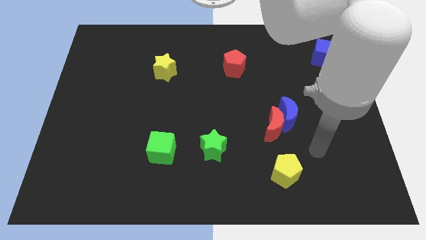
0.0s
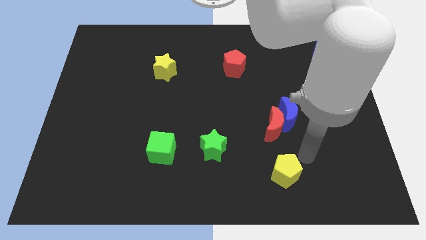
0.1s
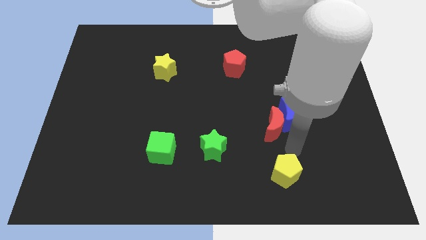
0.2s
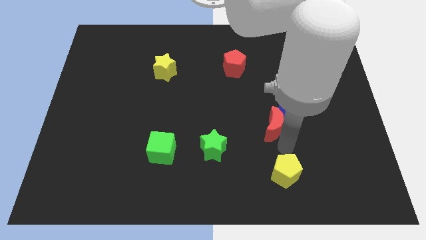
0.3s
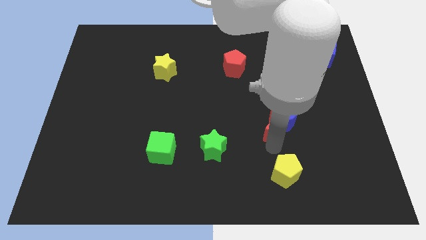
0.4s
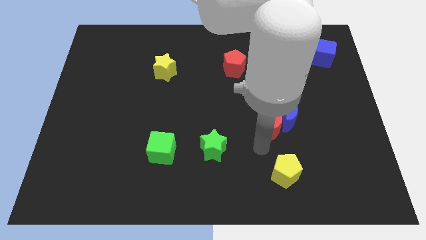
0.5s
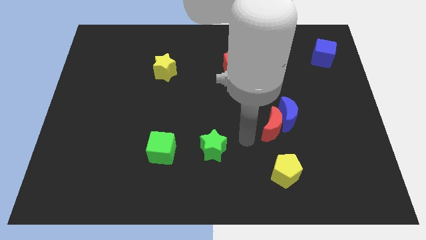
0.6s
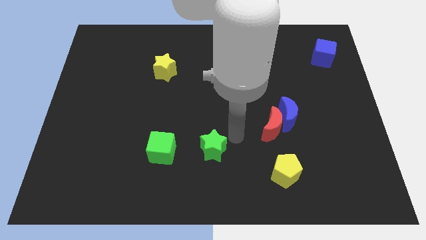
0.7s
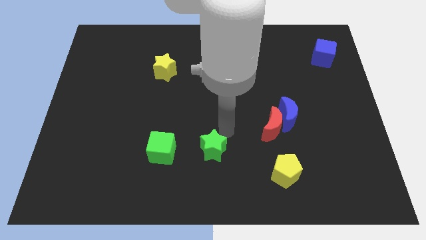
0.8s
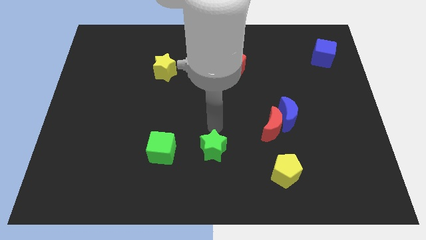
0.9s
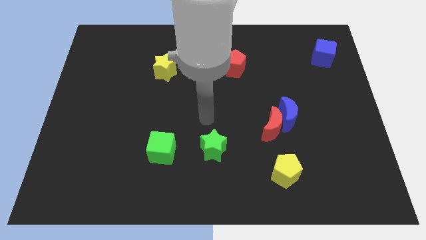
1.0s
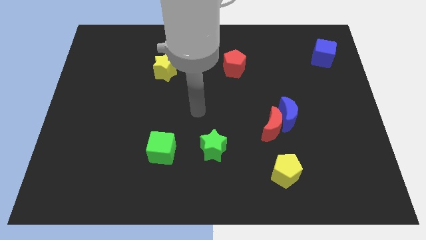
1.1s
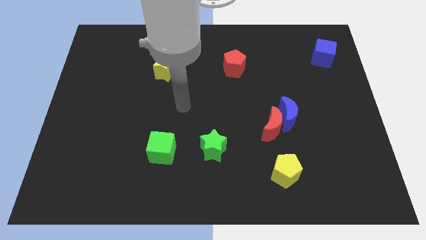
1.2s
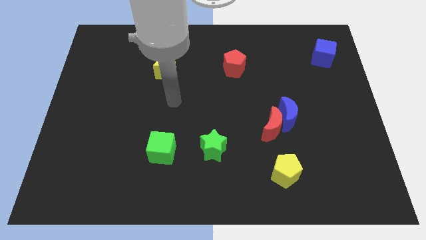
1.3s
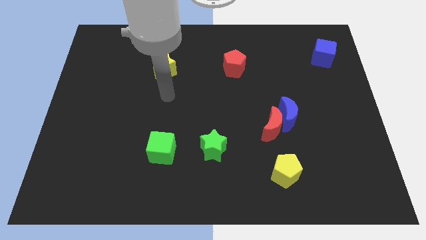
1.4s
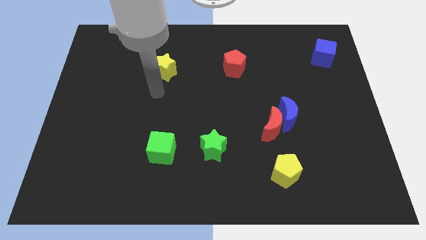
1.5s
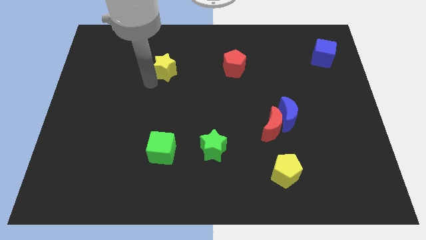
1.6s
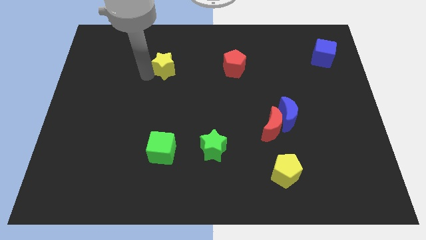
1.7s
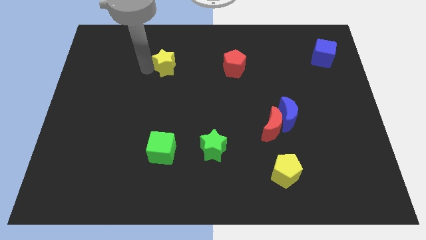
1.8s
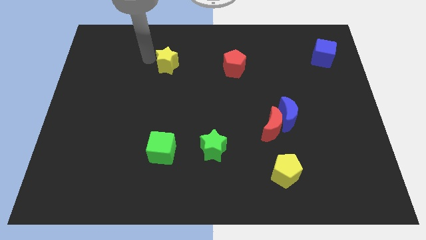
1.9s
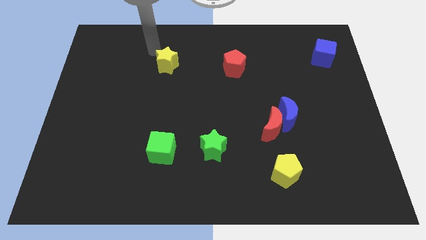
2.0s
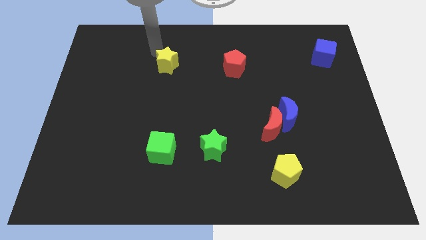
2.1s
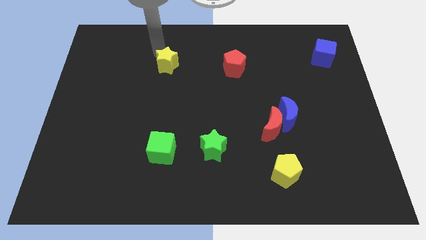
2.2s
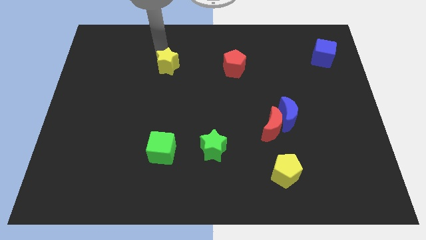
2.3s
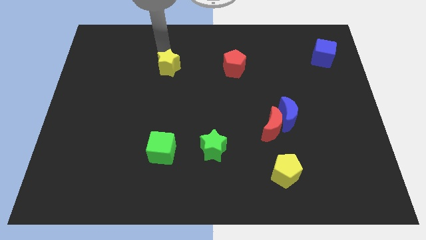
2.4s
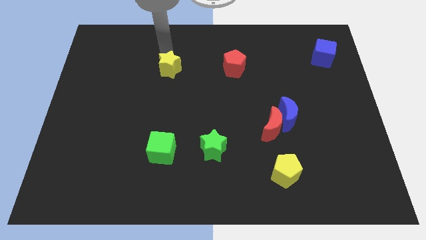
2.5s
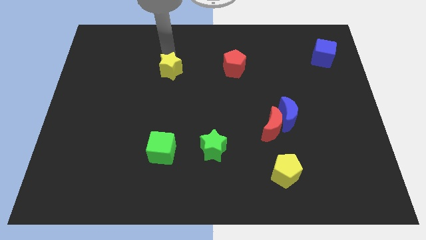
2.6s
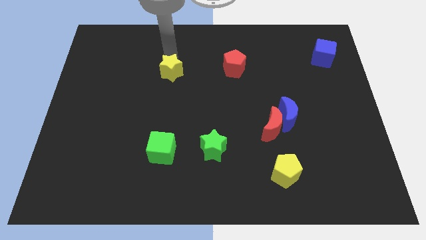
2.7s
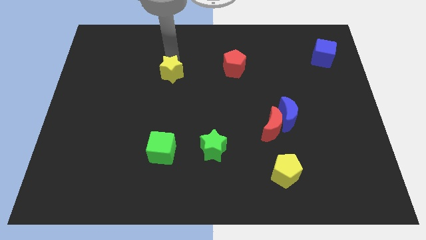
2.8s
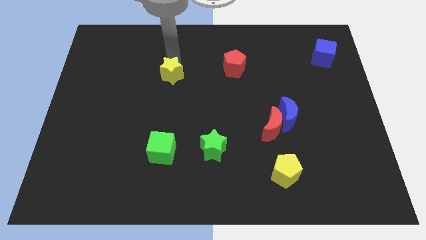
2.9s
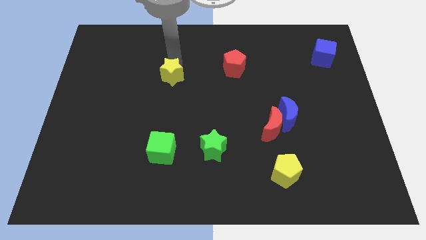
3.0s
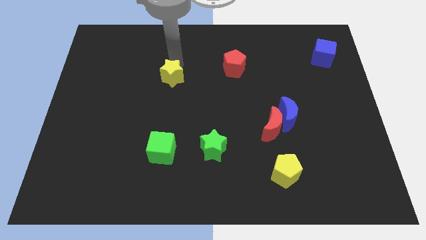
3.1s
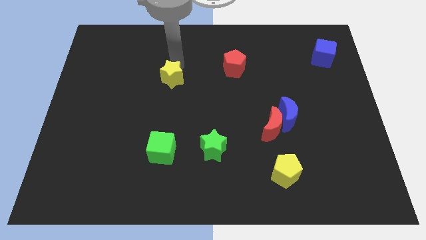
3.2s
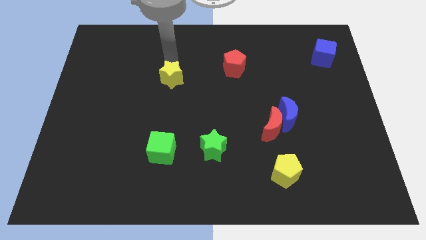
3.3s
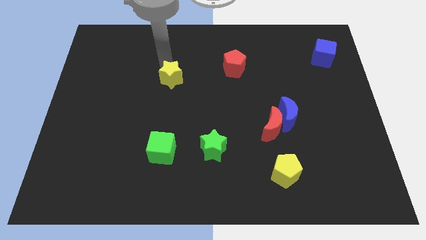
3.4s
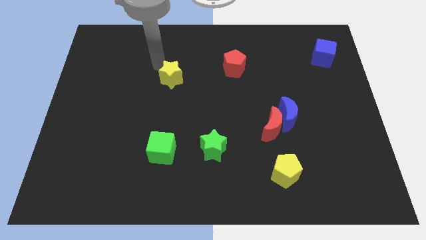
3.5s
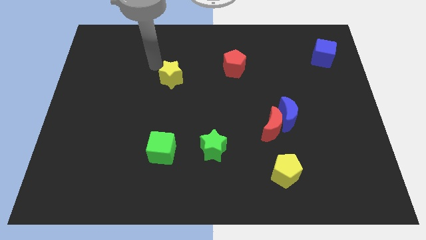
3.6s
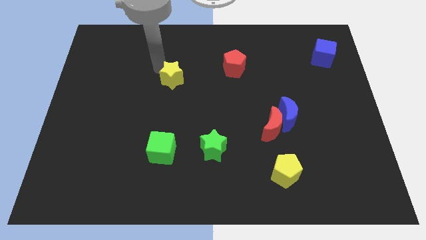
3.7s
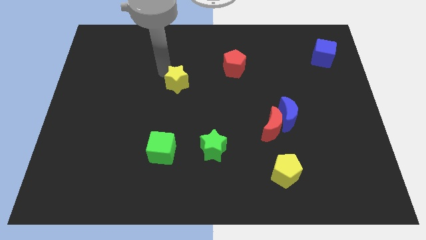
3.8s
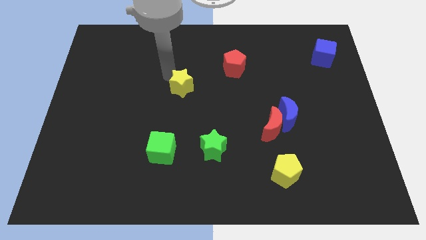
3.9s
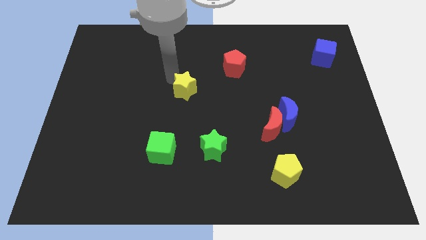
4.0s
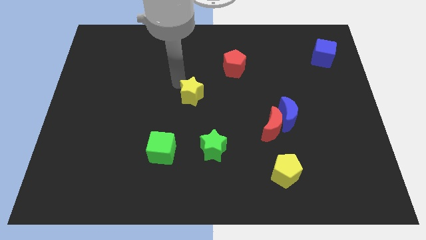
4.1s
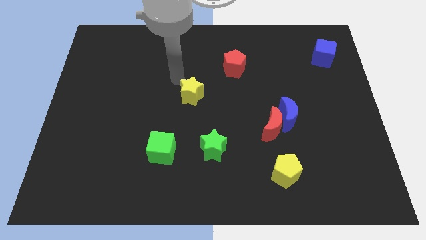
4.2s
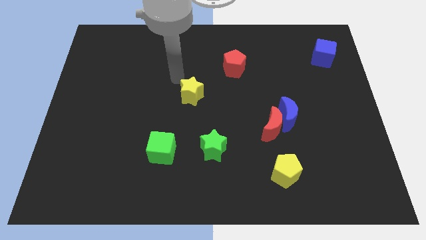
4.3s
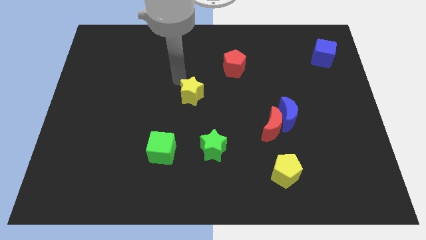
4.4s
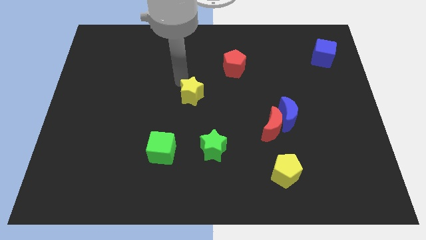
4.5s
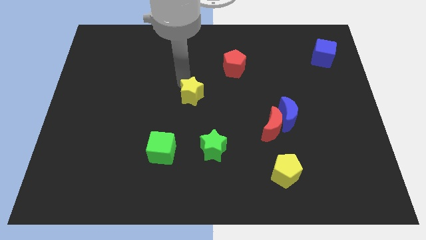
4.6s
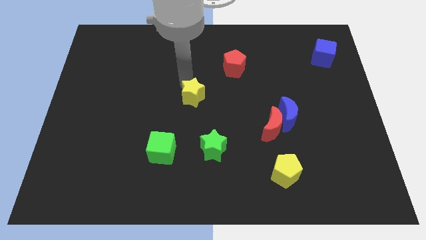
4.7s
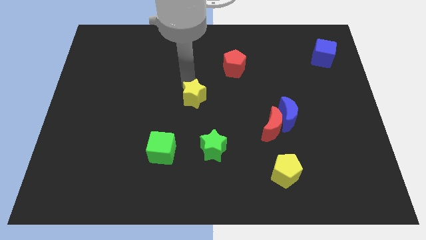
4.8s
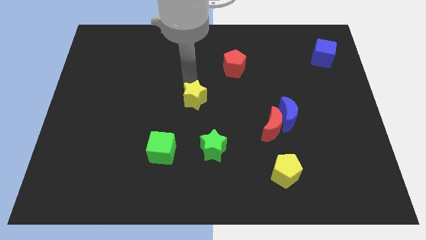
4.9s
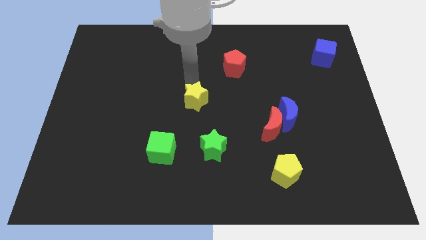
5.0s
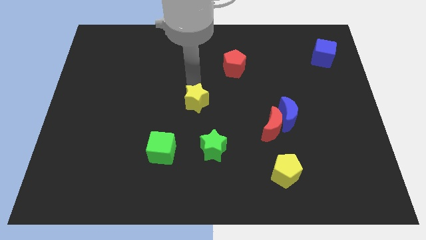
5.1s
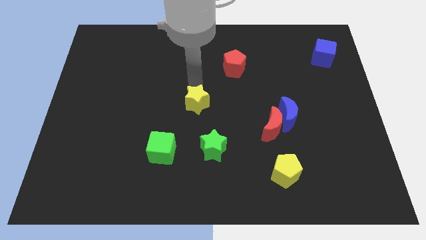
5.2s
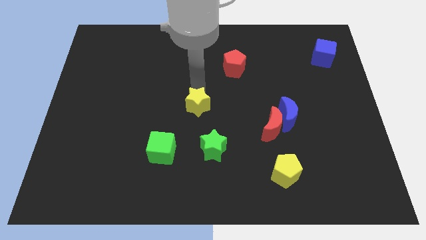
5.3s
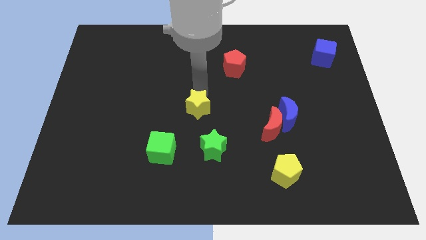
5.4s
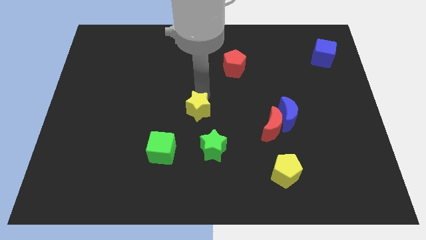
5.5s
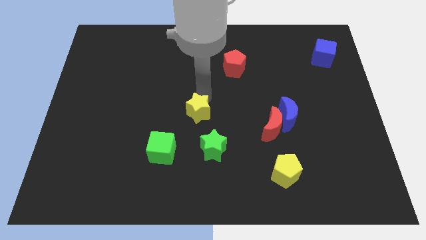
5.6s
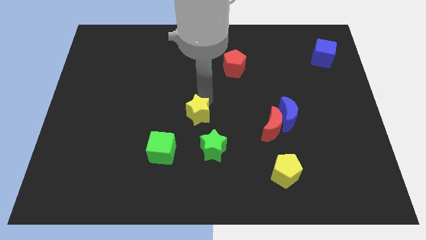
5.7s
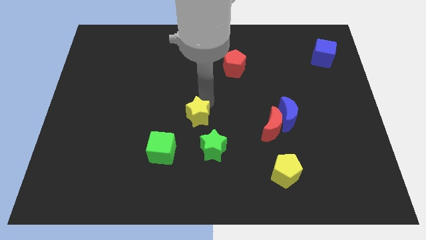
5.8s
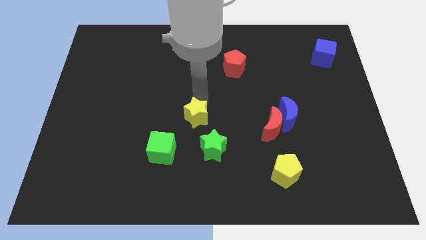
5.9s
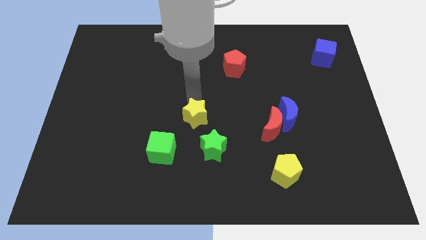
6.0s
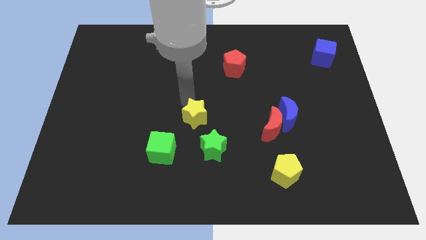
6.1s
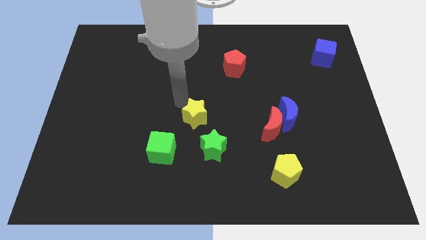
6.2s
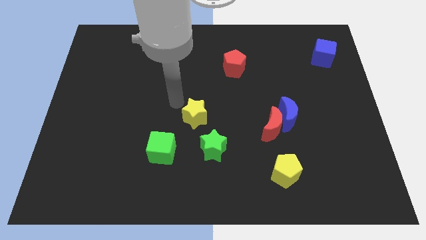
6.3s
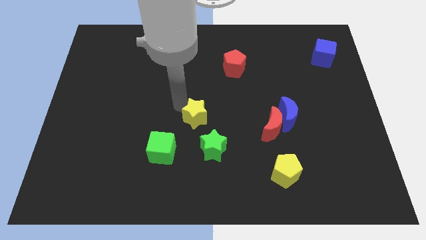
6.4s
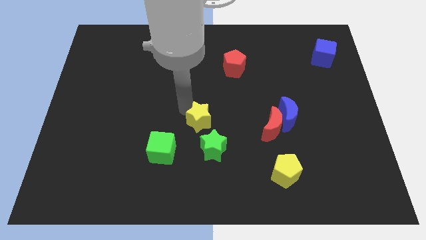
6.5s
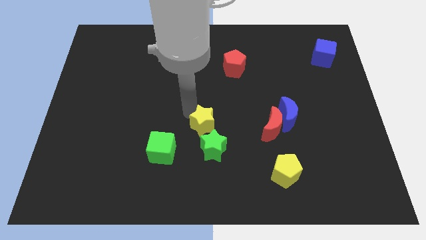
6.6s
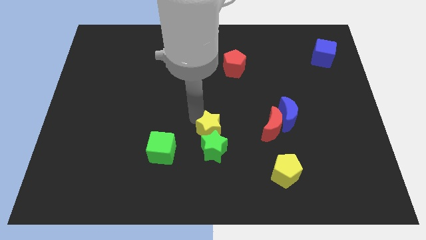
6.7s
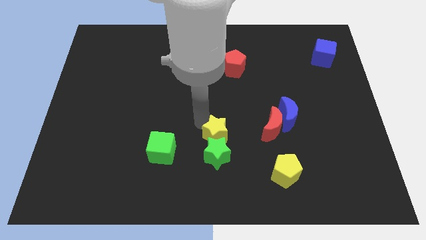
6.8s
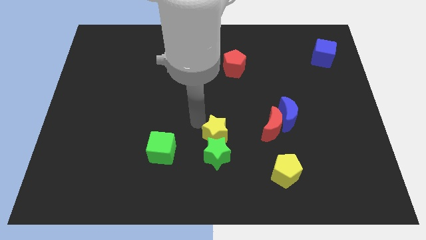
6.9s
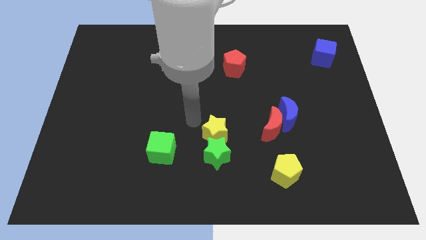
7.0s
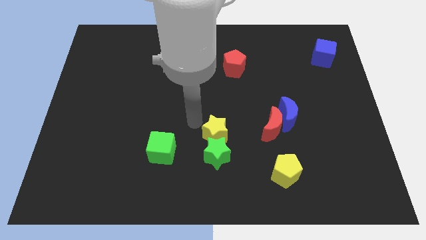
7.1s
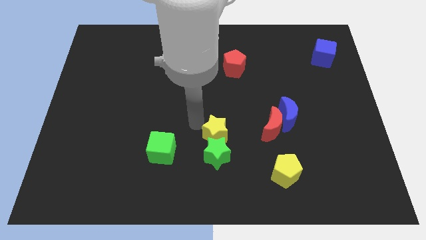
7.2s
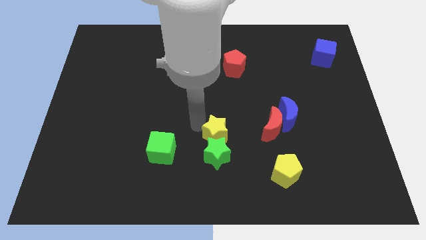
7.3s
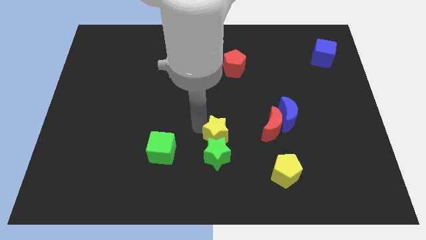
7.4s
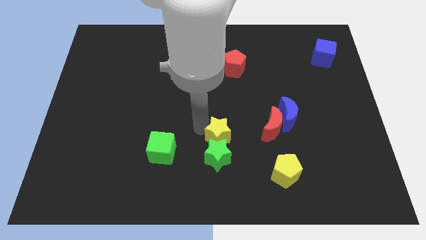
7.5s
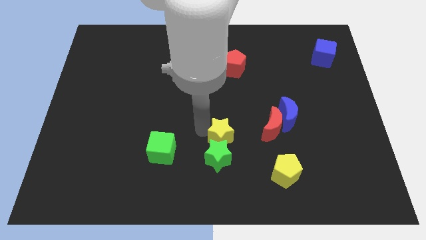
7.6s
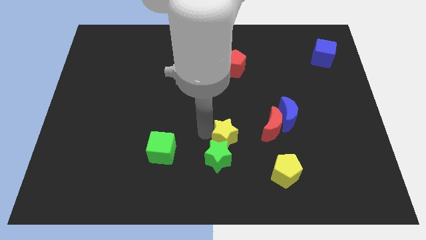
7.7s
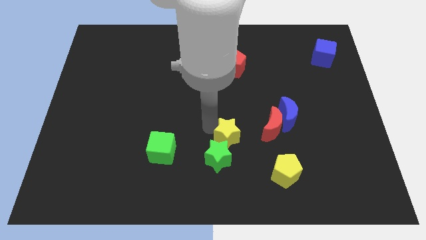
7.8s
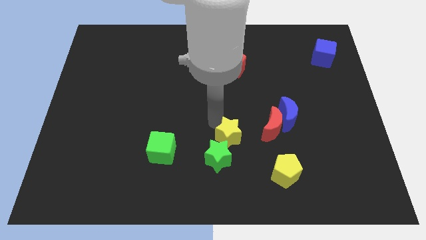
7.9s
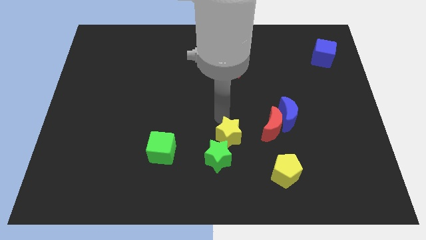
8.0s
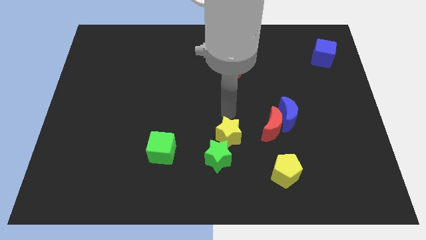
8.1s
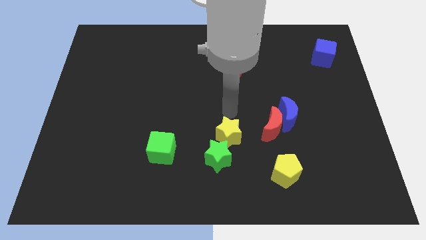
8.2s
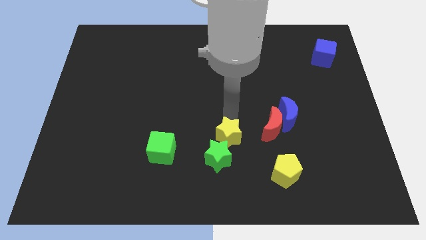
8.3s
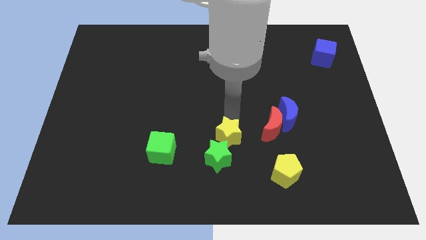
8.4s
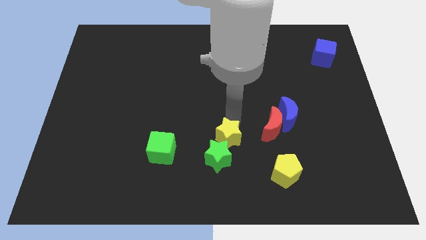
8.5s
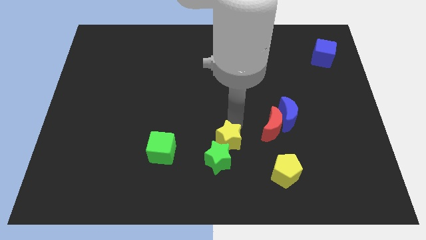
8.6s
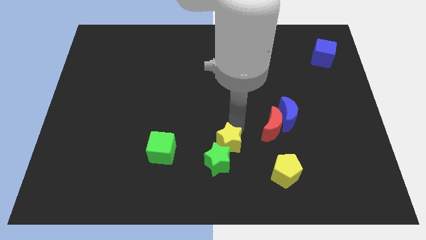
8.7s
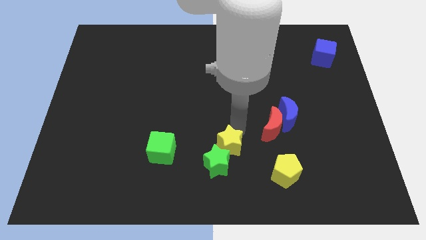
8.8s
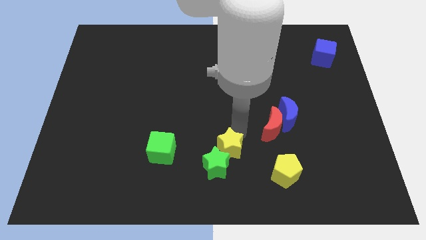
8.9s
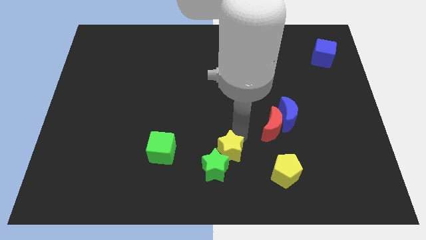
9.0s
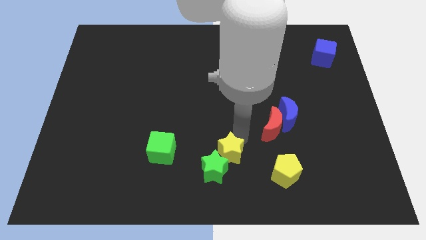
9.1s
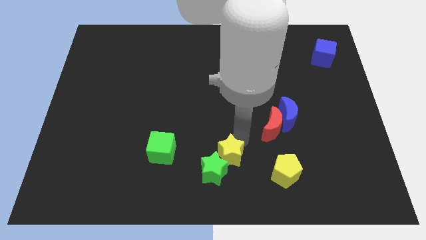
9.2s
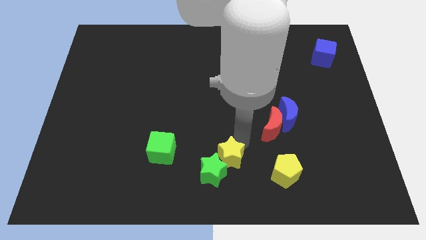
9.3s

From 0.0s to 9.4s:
push the yellow star to the bottom
